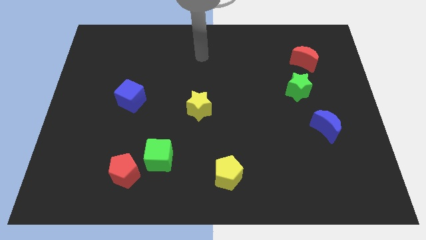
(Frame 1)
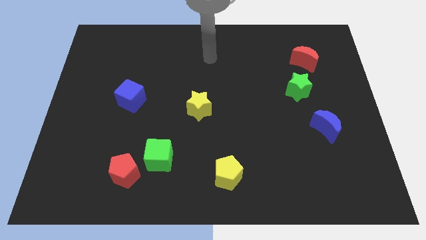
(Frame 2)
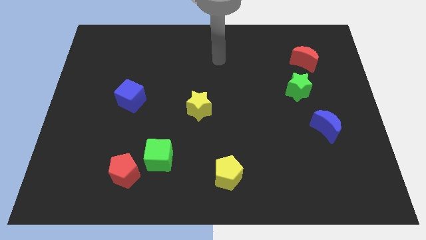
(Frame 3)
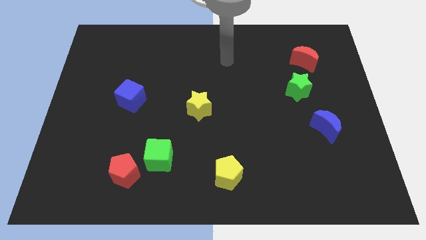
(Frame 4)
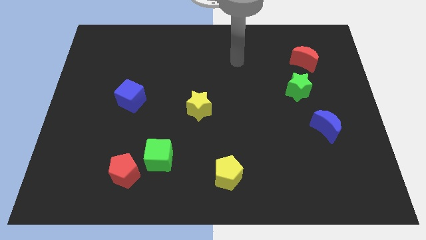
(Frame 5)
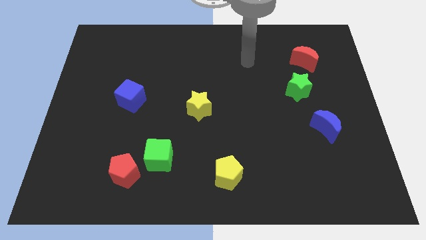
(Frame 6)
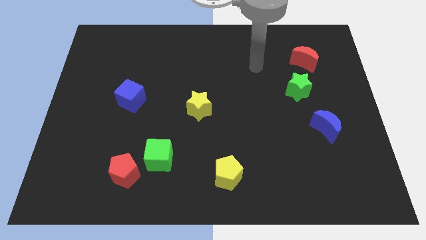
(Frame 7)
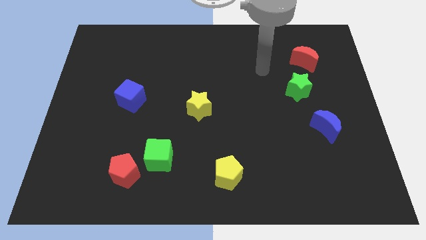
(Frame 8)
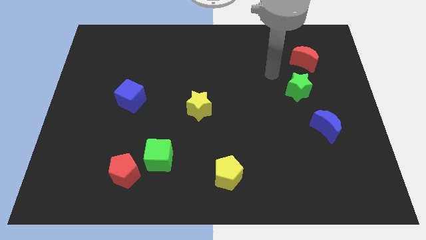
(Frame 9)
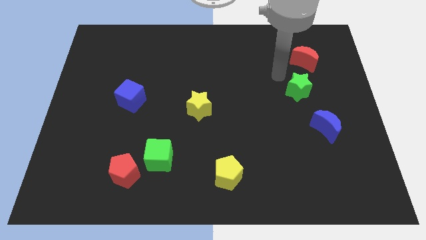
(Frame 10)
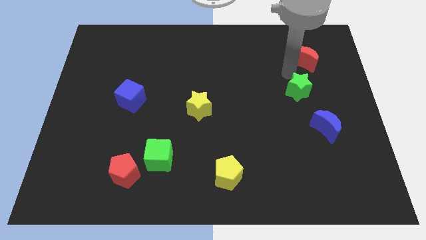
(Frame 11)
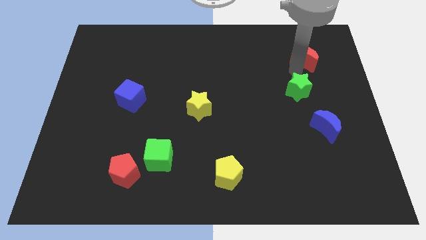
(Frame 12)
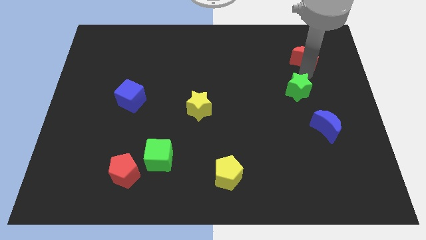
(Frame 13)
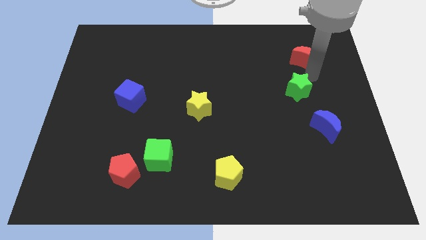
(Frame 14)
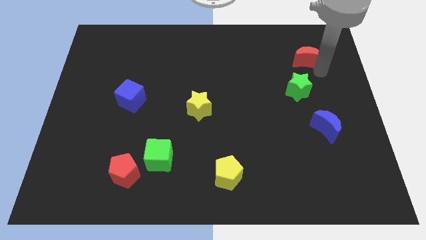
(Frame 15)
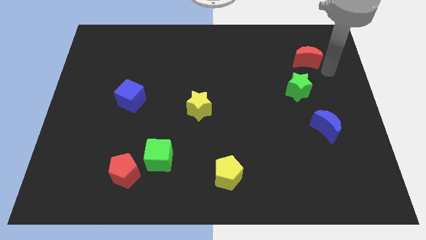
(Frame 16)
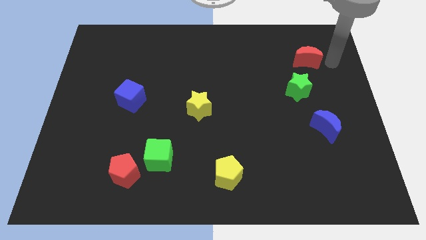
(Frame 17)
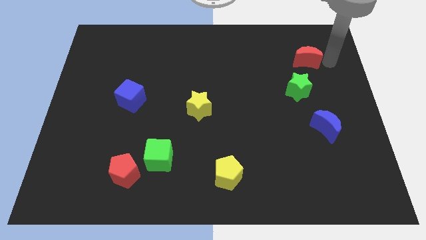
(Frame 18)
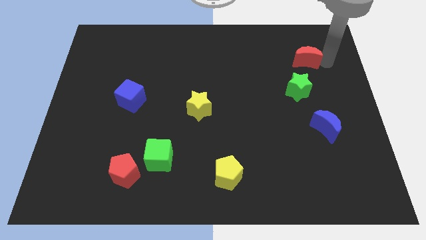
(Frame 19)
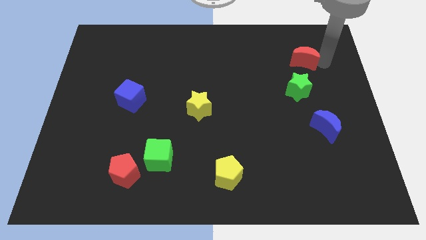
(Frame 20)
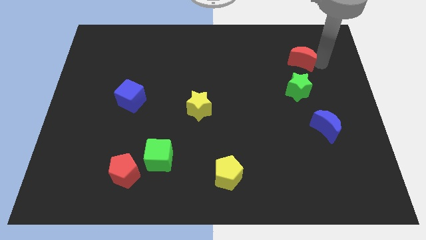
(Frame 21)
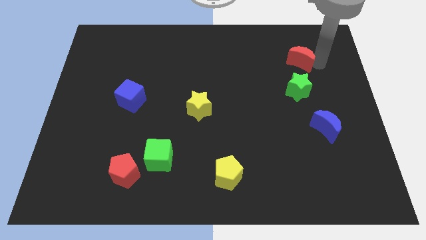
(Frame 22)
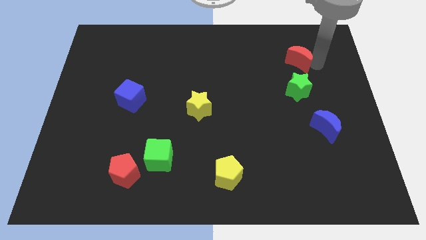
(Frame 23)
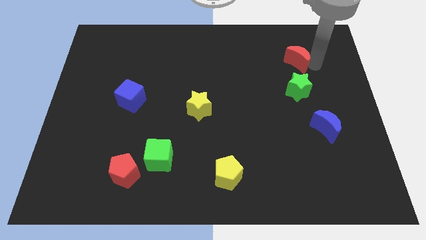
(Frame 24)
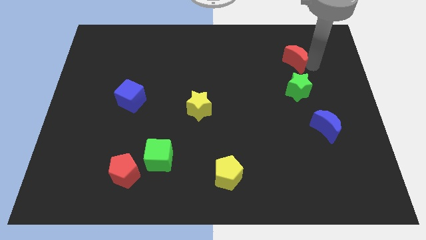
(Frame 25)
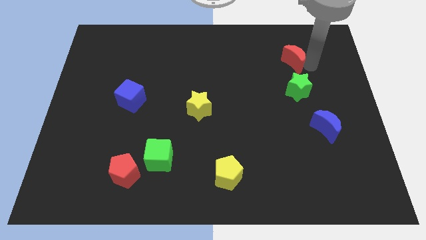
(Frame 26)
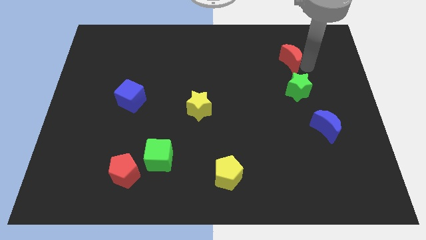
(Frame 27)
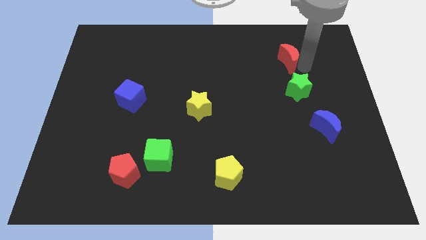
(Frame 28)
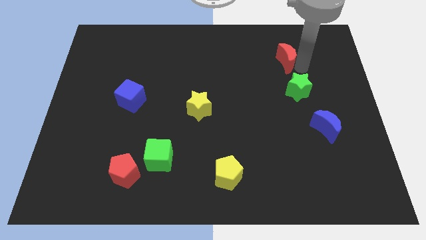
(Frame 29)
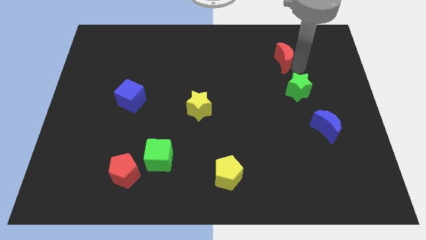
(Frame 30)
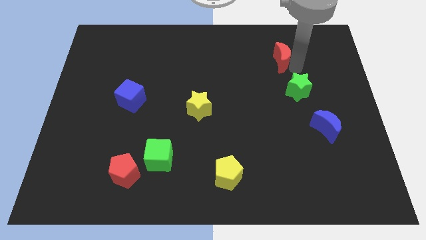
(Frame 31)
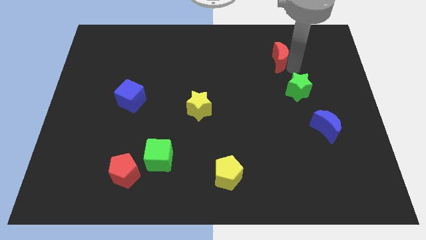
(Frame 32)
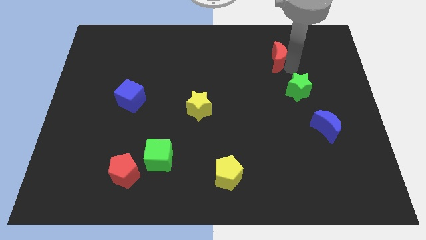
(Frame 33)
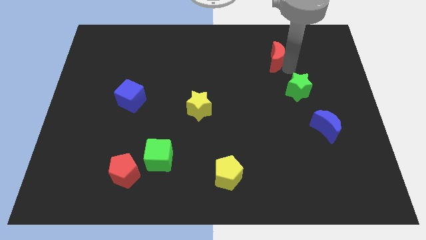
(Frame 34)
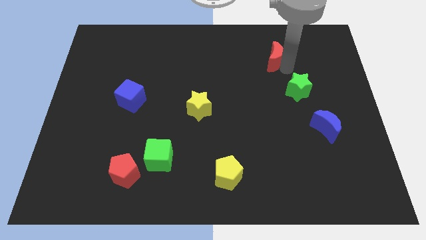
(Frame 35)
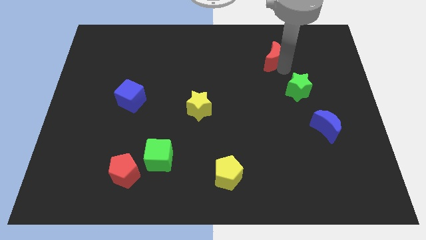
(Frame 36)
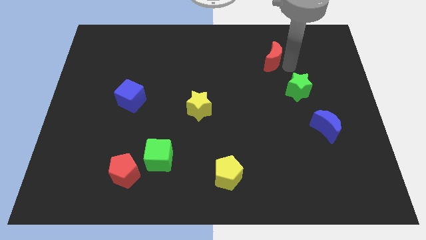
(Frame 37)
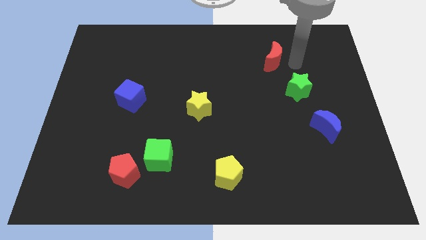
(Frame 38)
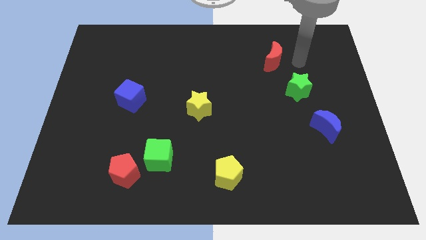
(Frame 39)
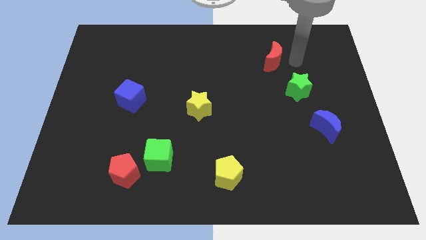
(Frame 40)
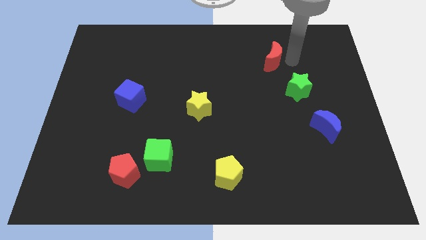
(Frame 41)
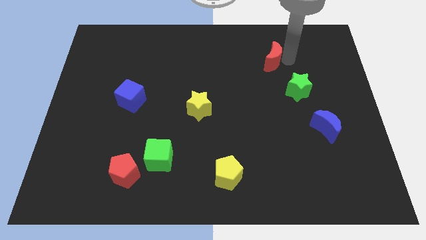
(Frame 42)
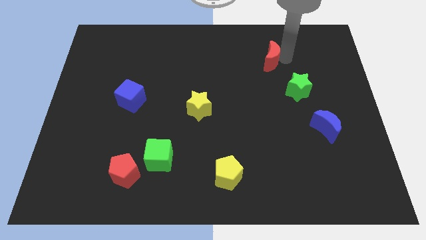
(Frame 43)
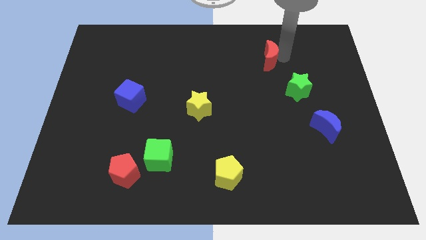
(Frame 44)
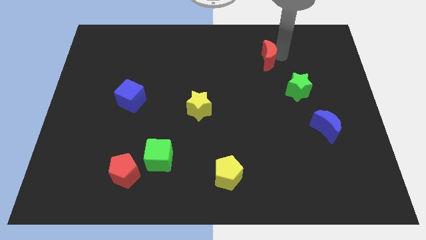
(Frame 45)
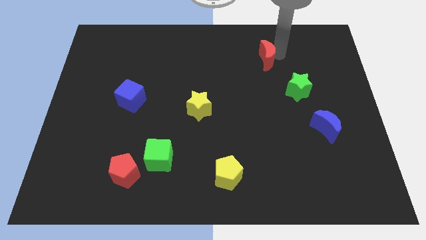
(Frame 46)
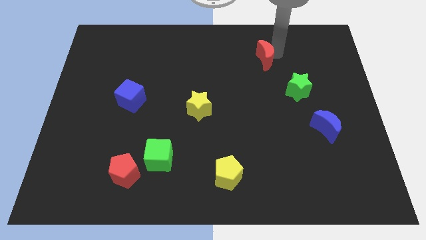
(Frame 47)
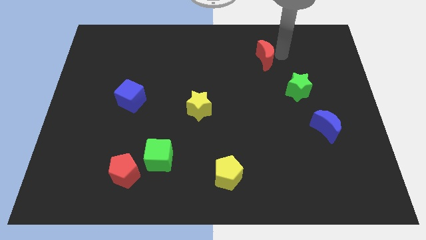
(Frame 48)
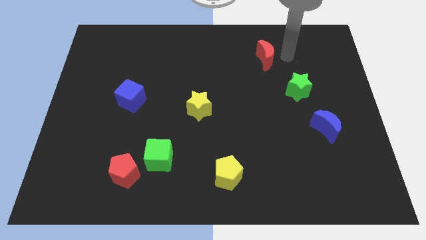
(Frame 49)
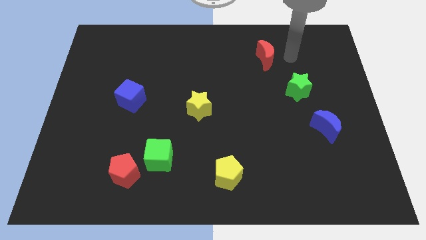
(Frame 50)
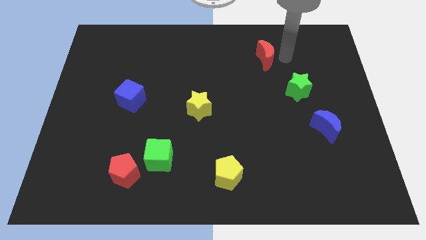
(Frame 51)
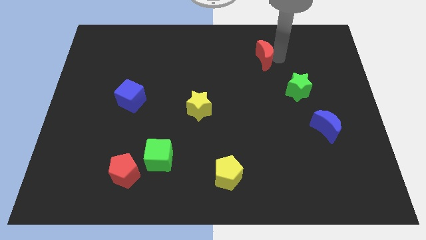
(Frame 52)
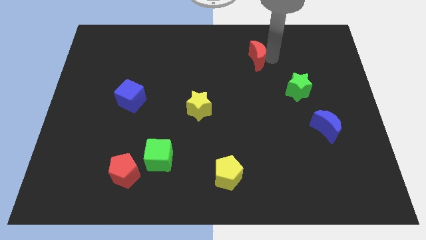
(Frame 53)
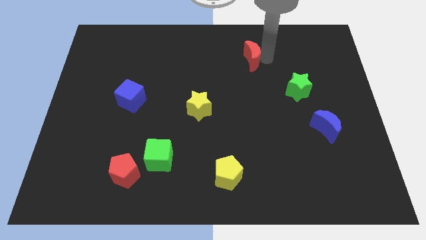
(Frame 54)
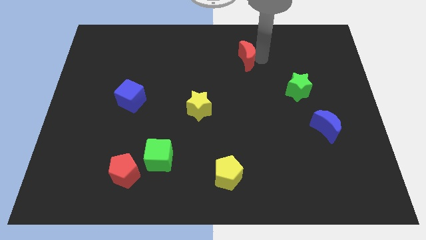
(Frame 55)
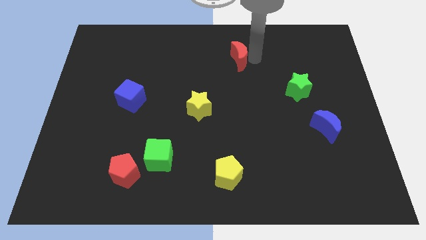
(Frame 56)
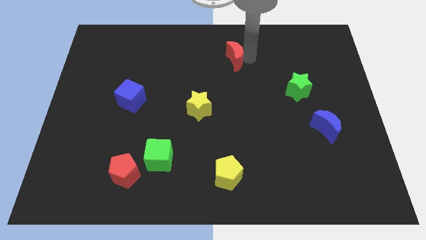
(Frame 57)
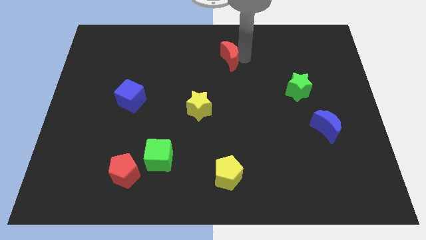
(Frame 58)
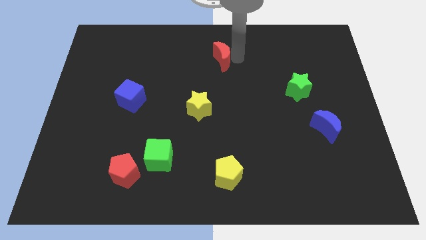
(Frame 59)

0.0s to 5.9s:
slide the red moon left

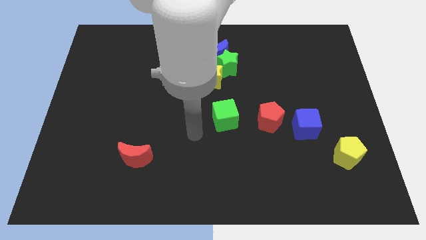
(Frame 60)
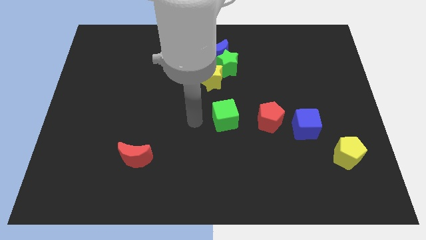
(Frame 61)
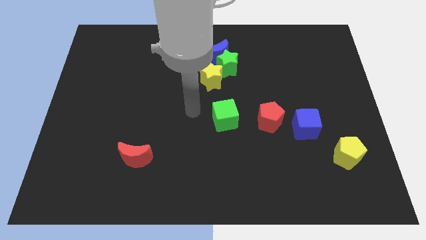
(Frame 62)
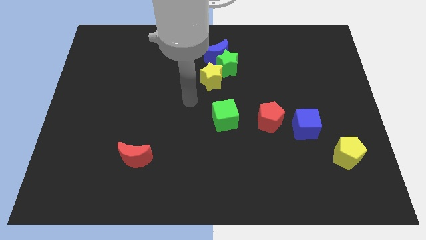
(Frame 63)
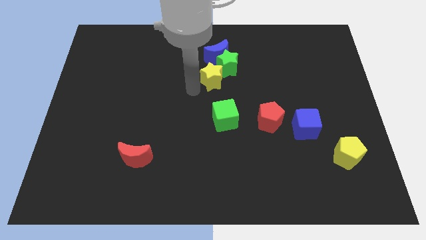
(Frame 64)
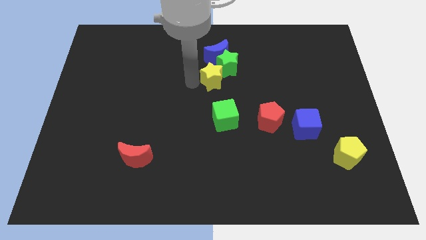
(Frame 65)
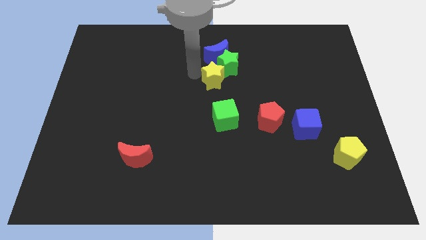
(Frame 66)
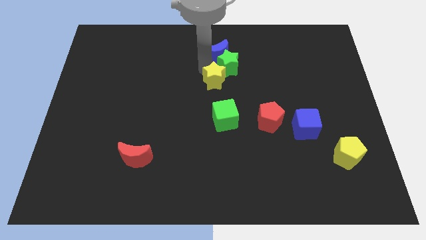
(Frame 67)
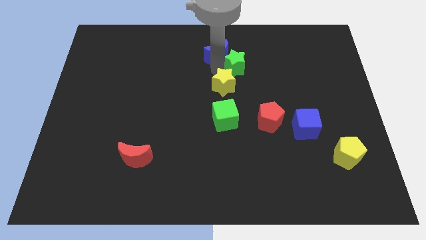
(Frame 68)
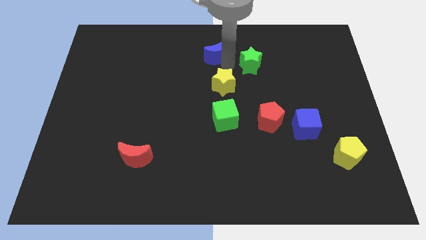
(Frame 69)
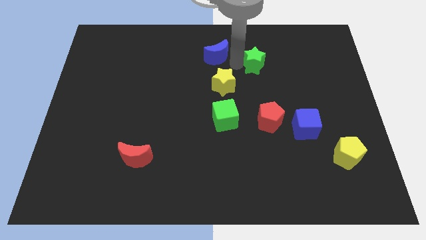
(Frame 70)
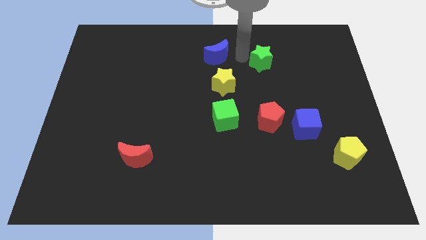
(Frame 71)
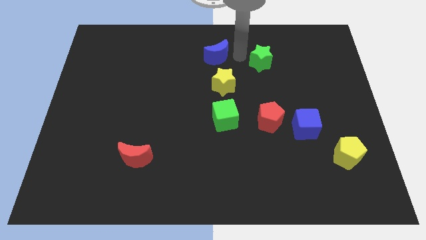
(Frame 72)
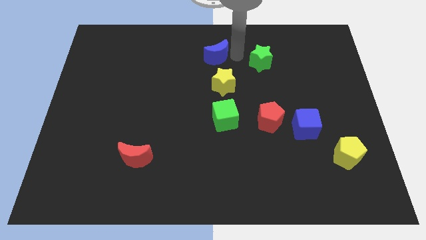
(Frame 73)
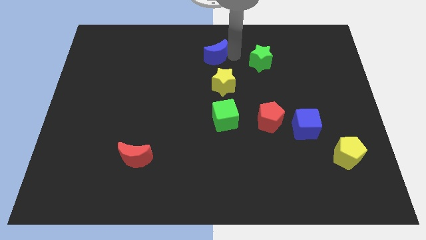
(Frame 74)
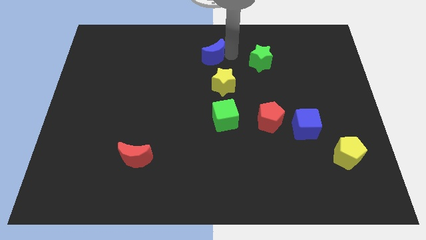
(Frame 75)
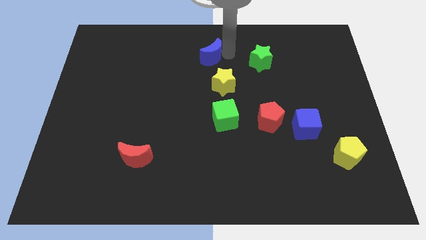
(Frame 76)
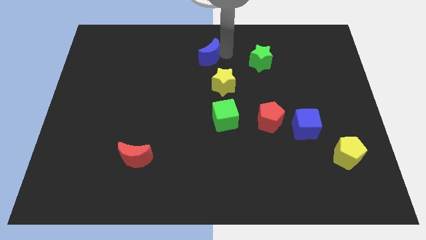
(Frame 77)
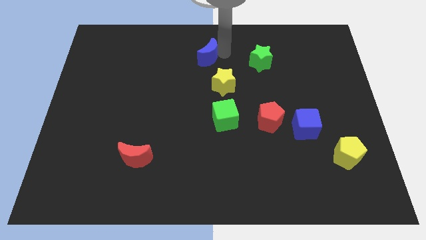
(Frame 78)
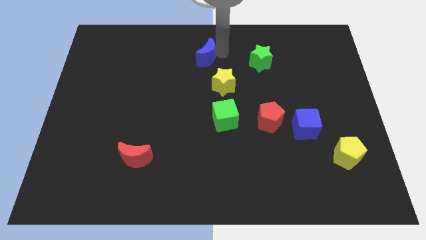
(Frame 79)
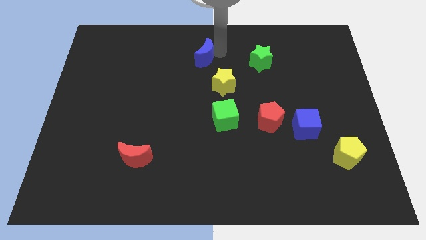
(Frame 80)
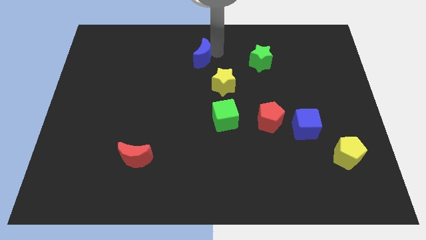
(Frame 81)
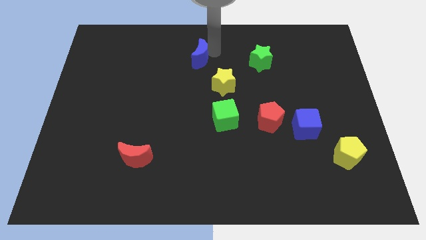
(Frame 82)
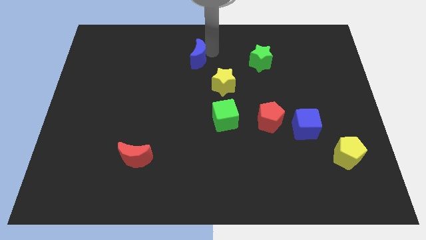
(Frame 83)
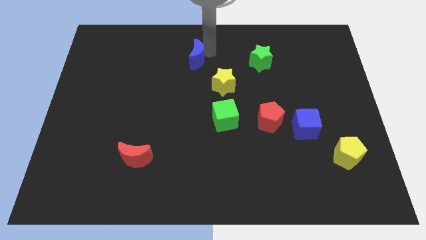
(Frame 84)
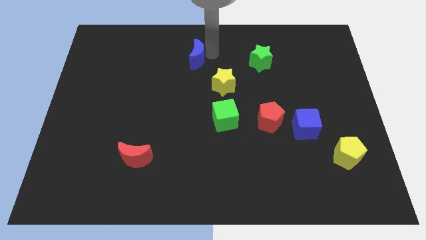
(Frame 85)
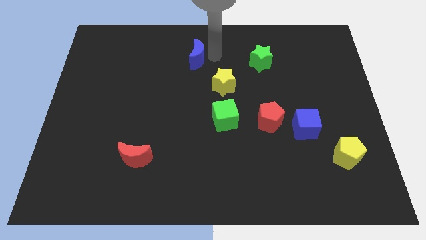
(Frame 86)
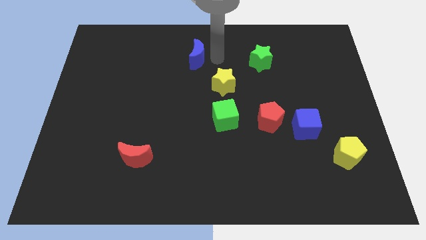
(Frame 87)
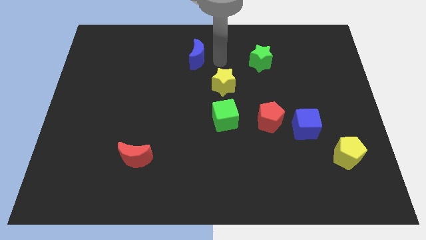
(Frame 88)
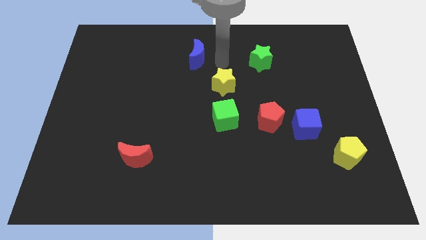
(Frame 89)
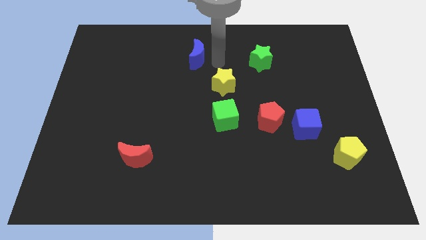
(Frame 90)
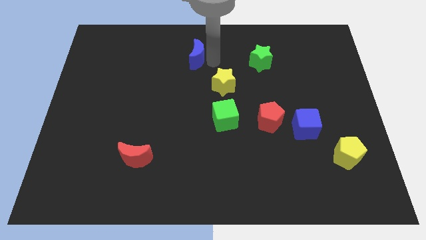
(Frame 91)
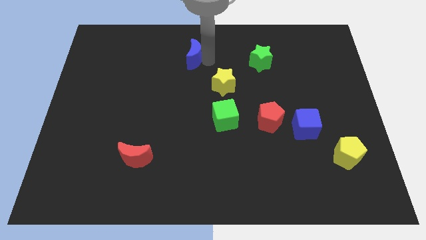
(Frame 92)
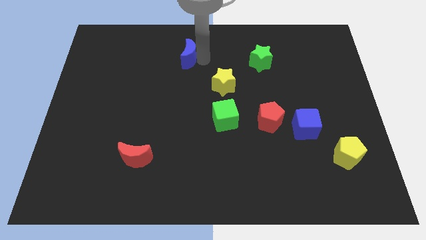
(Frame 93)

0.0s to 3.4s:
move the blue moon a little bit to the left
